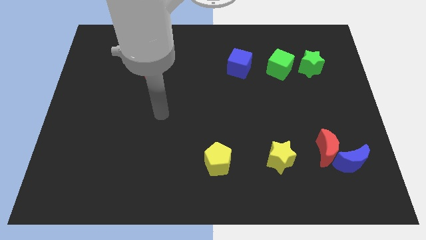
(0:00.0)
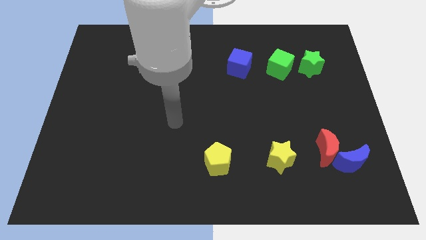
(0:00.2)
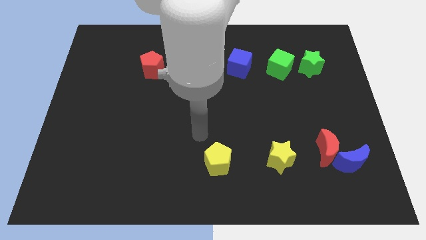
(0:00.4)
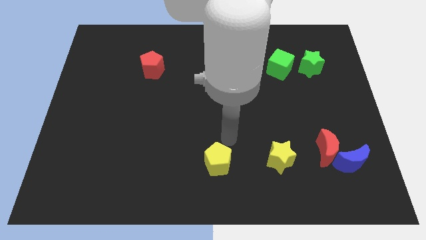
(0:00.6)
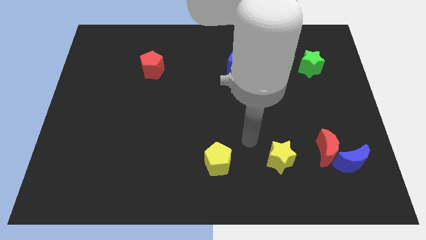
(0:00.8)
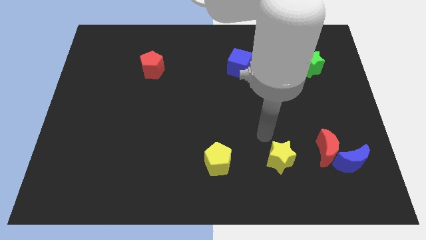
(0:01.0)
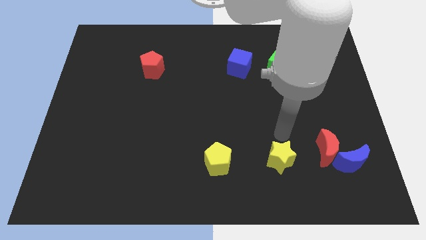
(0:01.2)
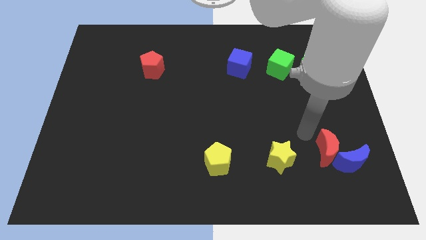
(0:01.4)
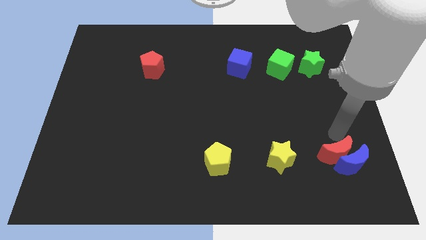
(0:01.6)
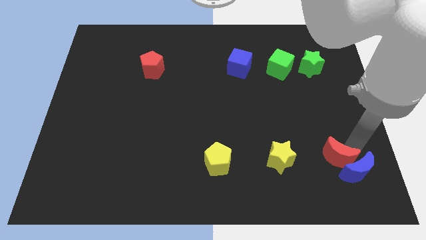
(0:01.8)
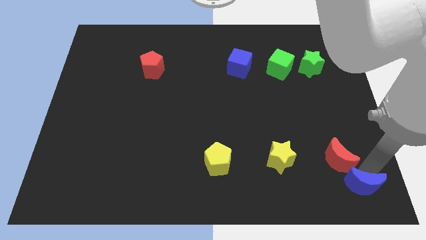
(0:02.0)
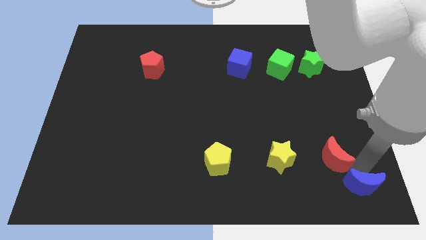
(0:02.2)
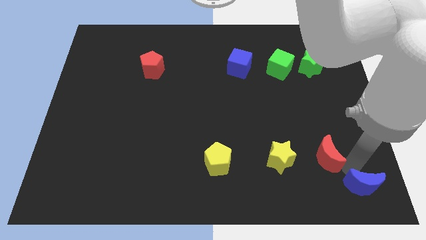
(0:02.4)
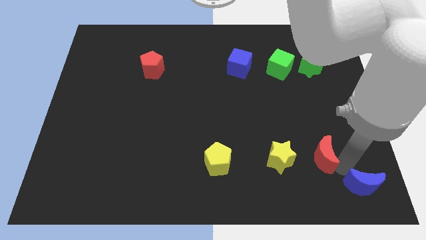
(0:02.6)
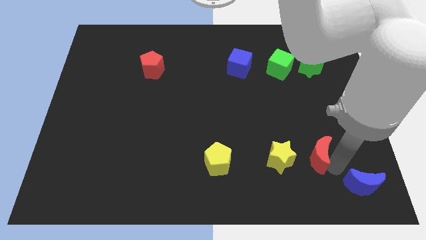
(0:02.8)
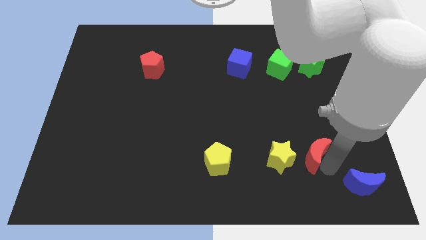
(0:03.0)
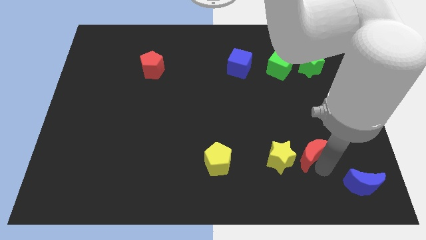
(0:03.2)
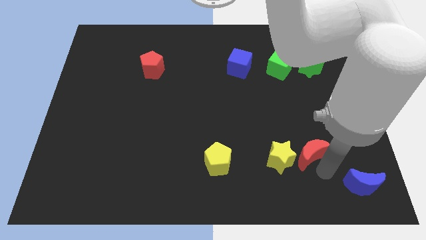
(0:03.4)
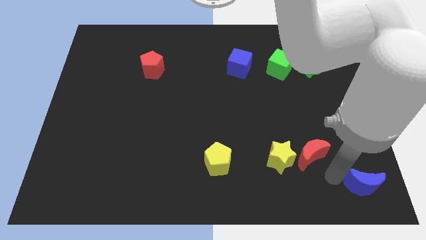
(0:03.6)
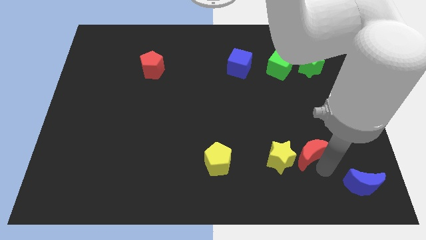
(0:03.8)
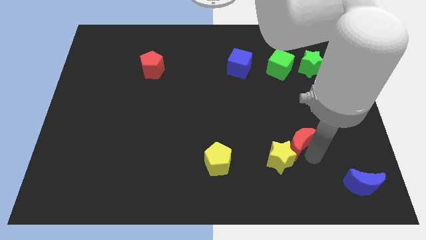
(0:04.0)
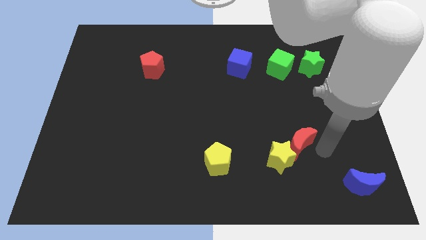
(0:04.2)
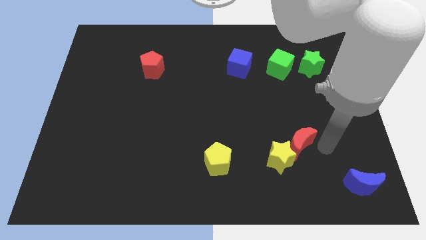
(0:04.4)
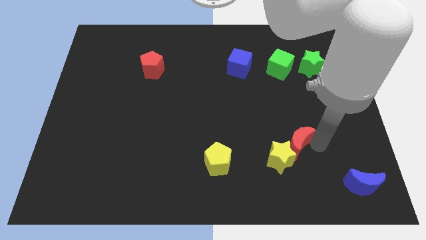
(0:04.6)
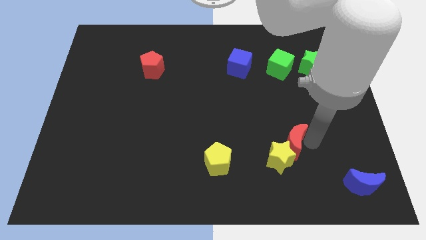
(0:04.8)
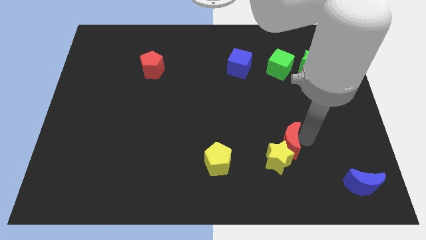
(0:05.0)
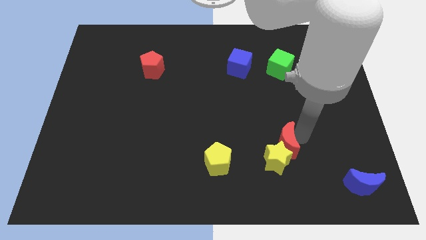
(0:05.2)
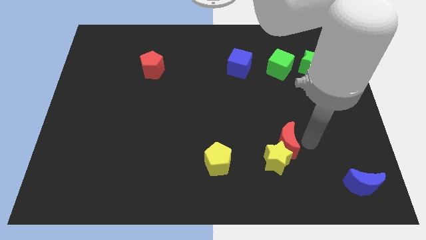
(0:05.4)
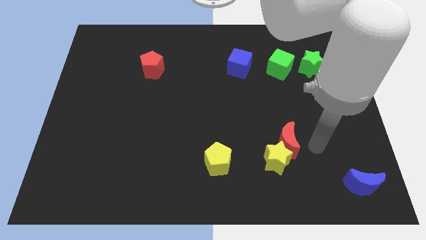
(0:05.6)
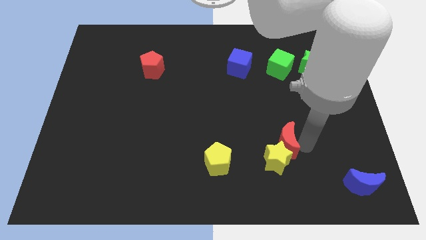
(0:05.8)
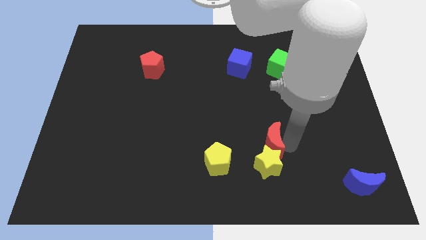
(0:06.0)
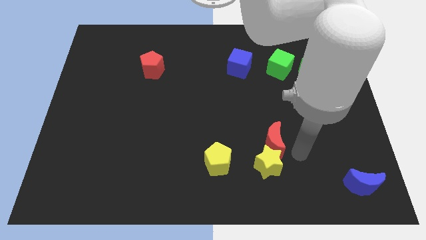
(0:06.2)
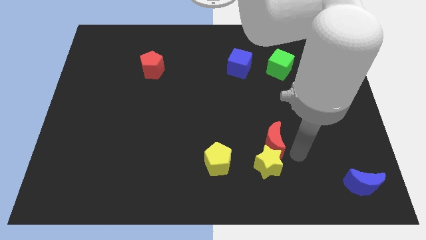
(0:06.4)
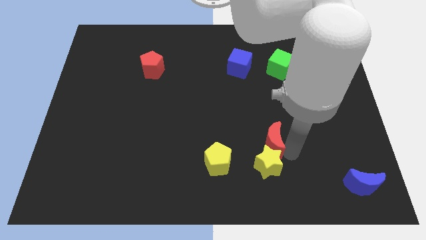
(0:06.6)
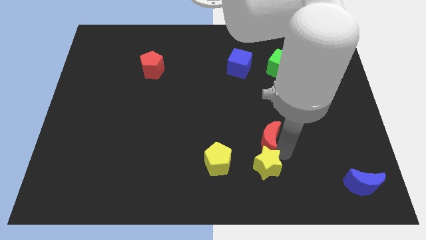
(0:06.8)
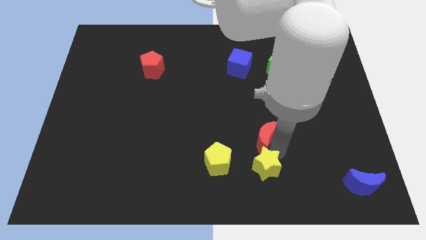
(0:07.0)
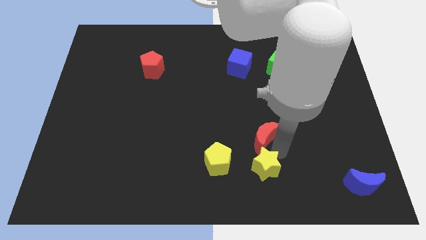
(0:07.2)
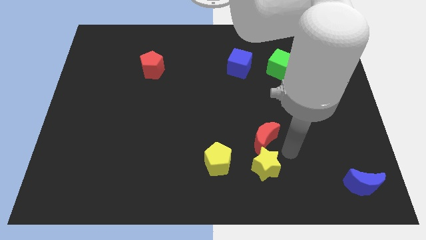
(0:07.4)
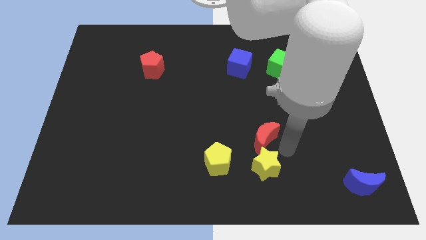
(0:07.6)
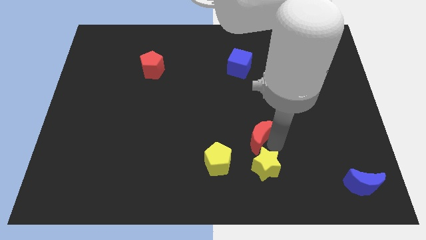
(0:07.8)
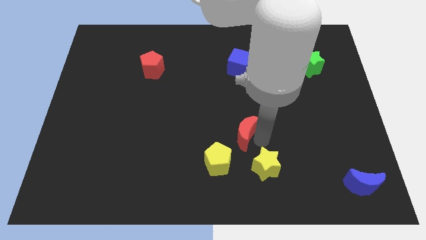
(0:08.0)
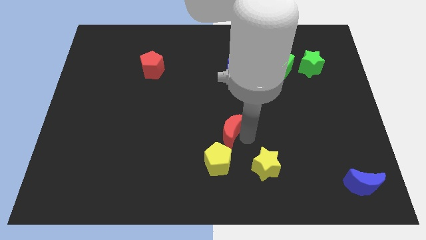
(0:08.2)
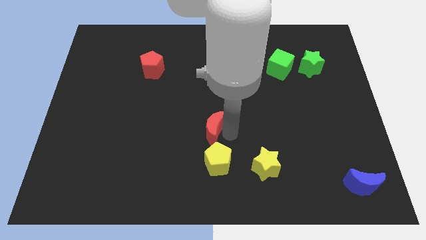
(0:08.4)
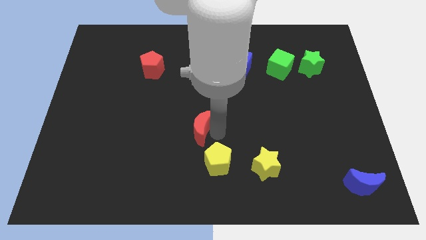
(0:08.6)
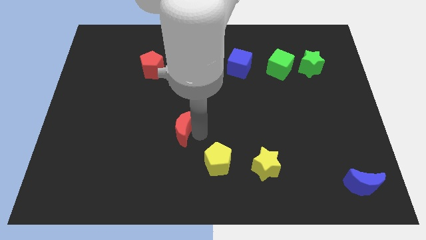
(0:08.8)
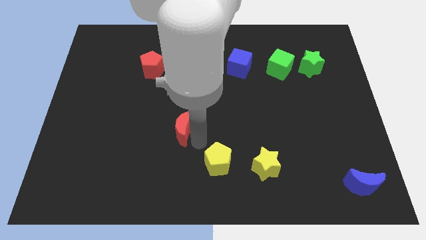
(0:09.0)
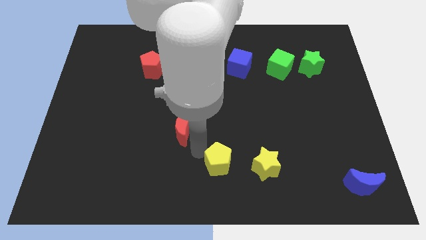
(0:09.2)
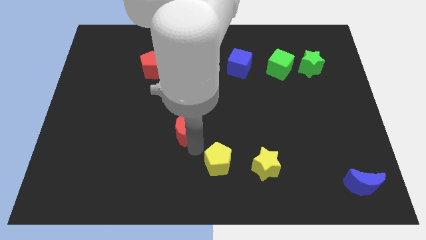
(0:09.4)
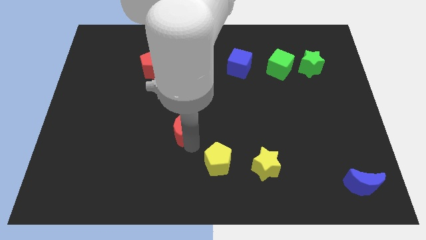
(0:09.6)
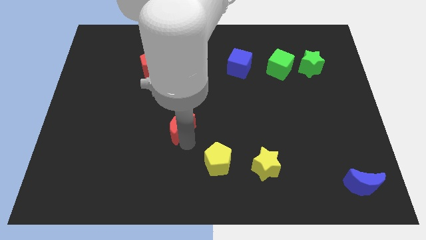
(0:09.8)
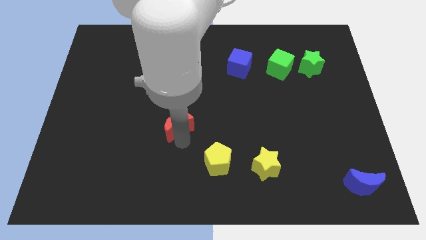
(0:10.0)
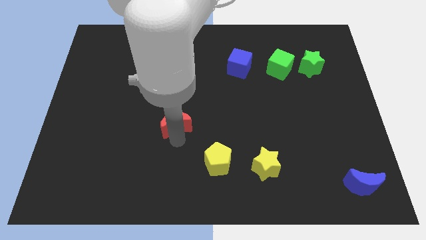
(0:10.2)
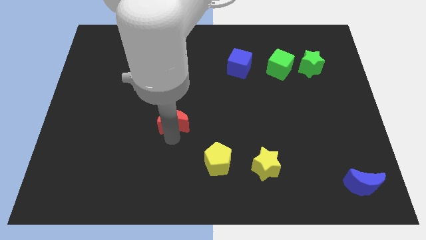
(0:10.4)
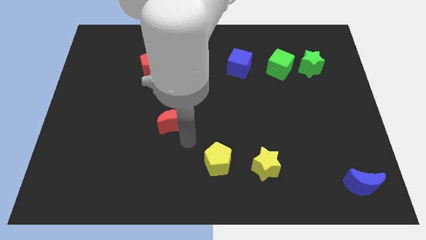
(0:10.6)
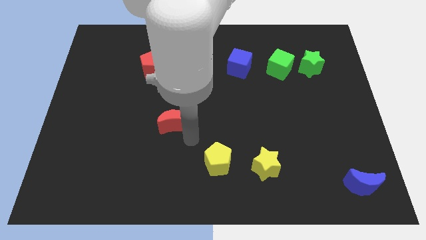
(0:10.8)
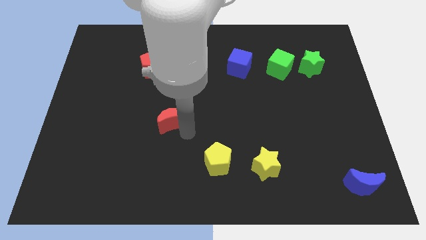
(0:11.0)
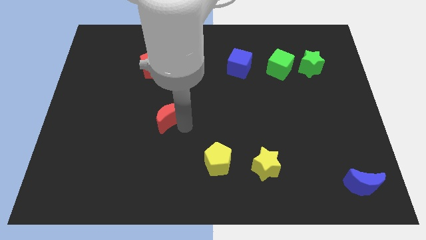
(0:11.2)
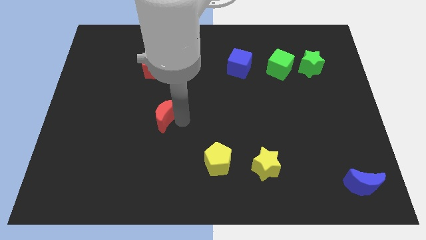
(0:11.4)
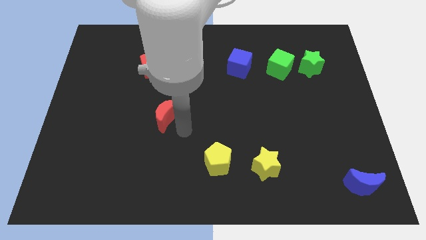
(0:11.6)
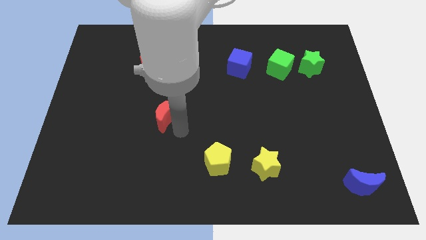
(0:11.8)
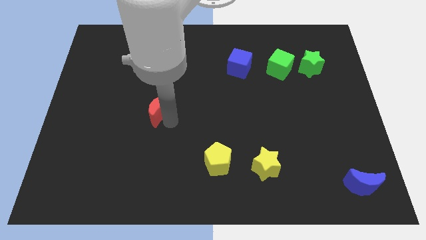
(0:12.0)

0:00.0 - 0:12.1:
slide the red moon to the bottom of the red pentagon

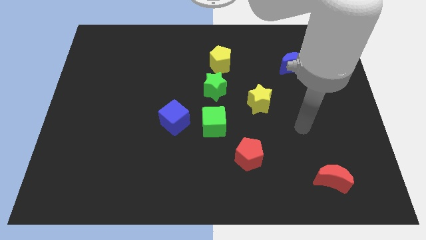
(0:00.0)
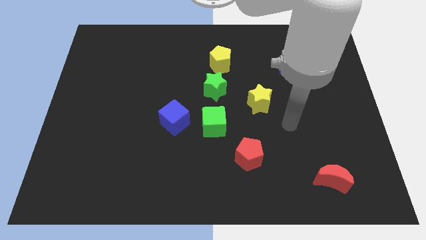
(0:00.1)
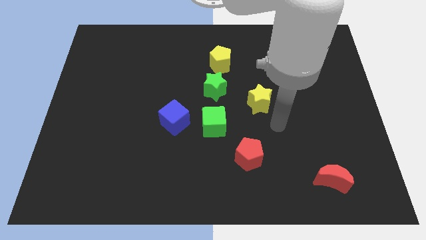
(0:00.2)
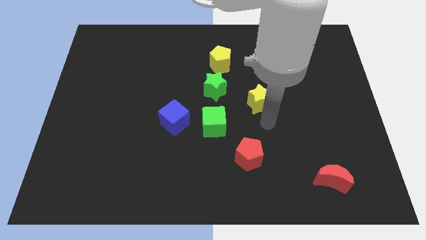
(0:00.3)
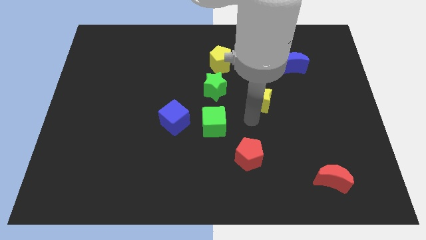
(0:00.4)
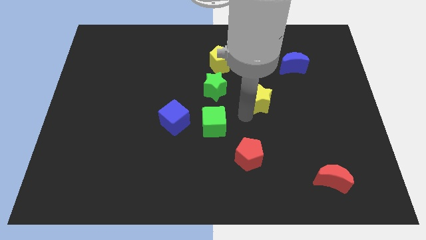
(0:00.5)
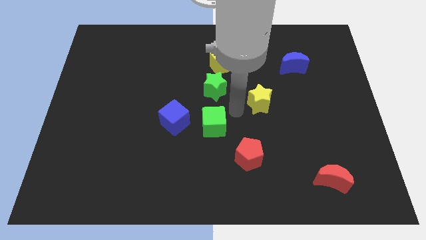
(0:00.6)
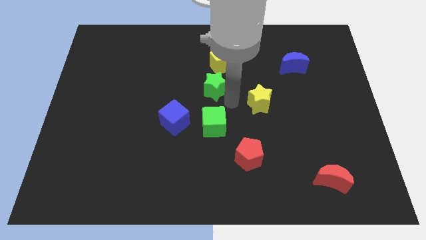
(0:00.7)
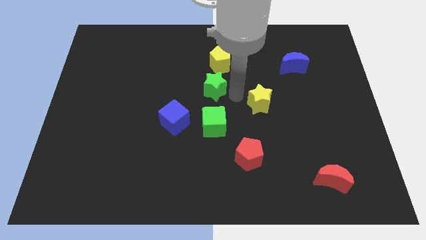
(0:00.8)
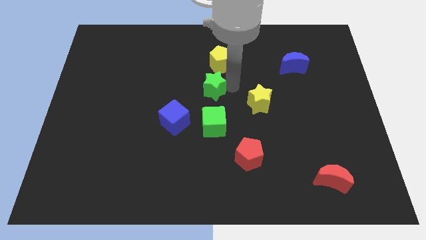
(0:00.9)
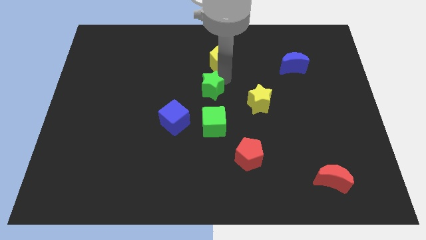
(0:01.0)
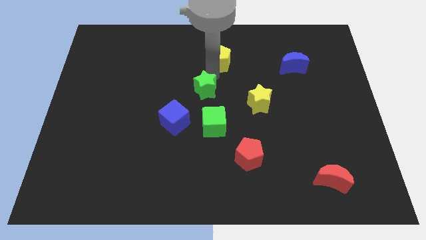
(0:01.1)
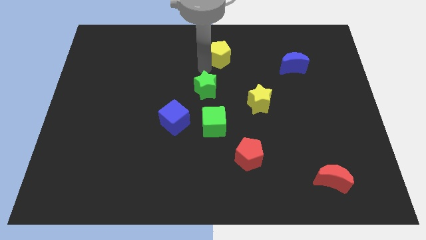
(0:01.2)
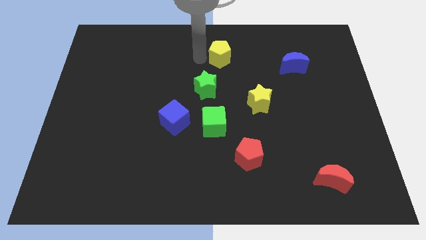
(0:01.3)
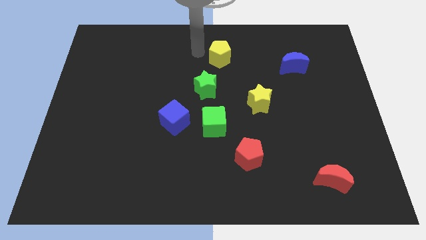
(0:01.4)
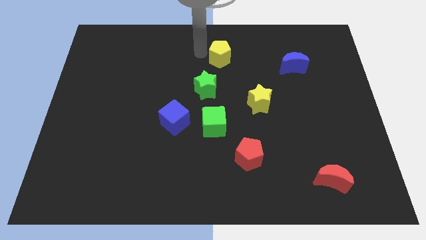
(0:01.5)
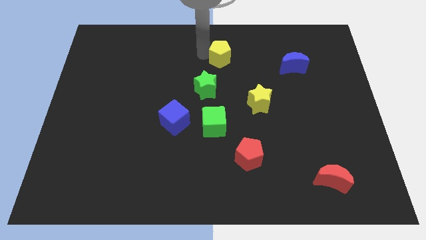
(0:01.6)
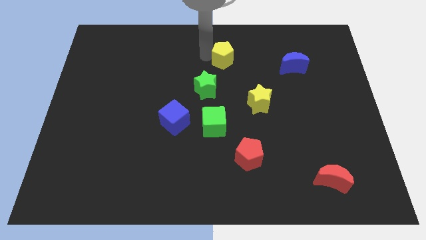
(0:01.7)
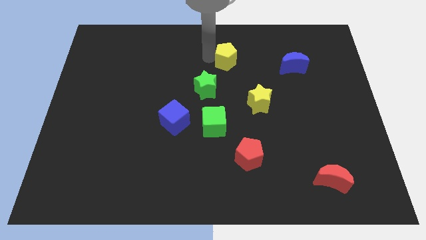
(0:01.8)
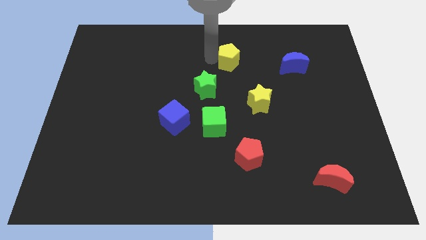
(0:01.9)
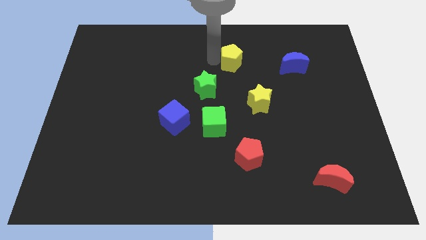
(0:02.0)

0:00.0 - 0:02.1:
slide the yellow pentagon just left of the blue moon
